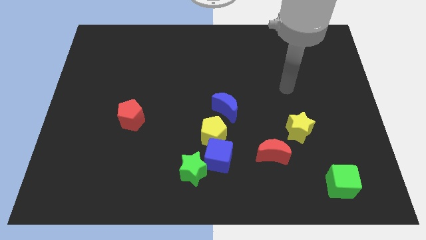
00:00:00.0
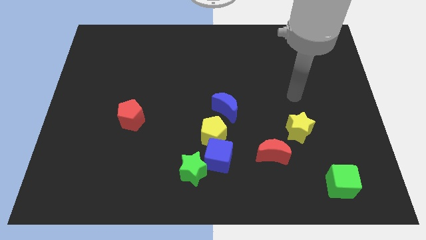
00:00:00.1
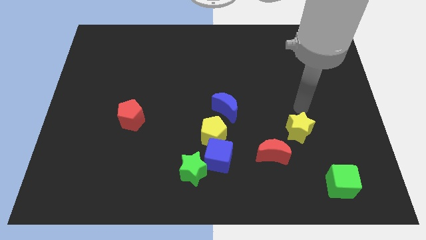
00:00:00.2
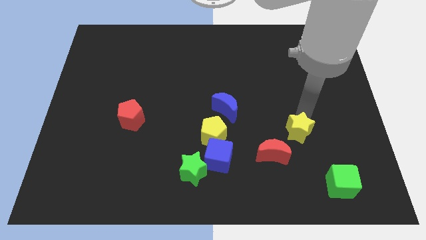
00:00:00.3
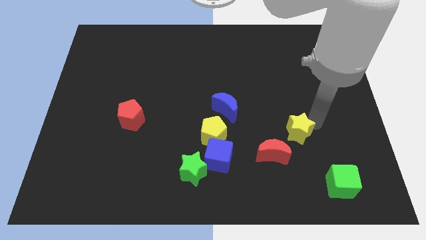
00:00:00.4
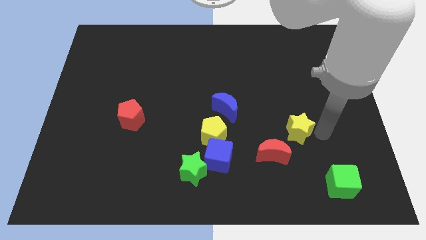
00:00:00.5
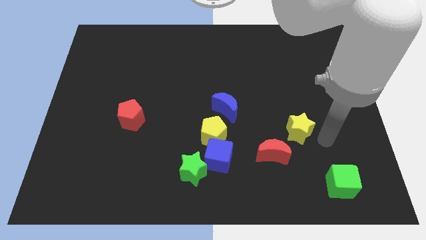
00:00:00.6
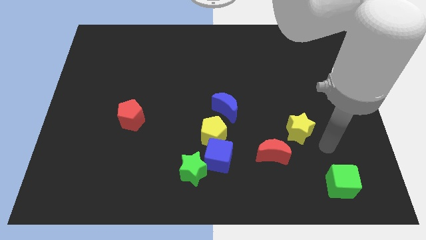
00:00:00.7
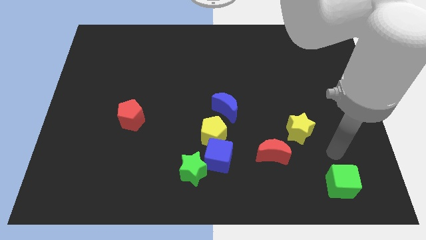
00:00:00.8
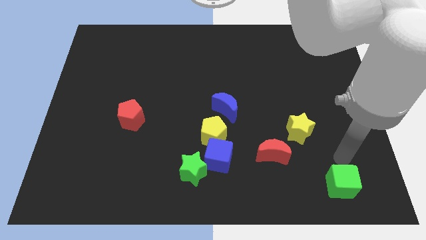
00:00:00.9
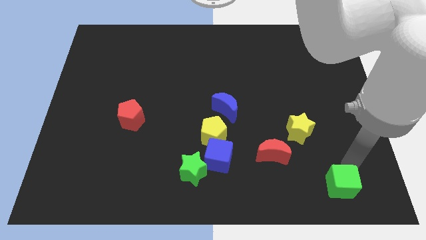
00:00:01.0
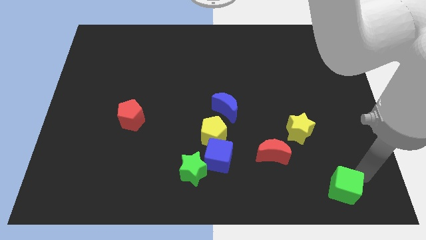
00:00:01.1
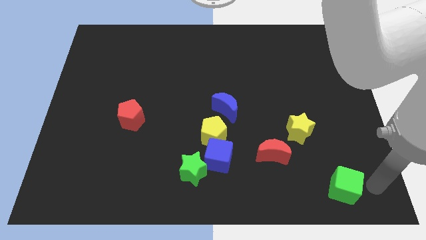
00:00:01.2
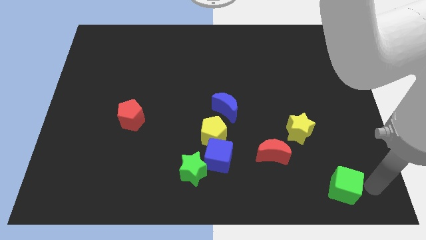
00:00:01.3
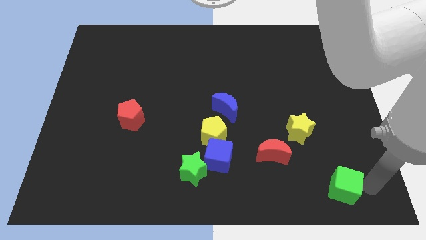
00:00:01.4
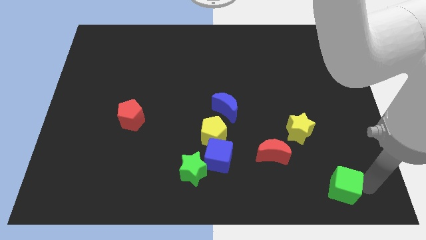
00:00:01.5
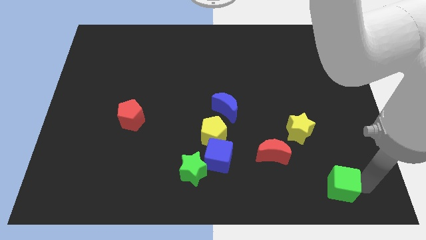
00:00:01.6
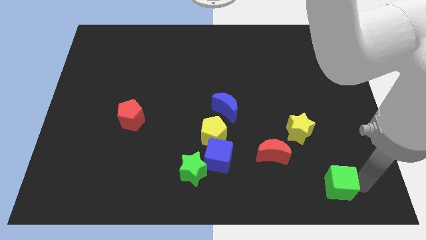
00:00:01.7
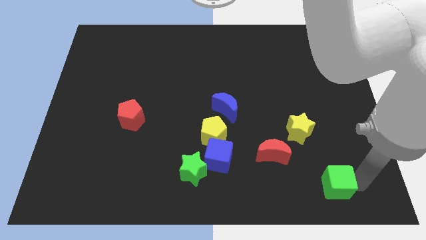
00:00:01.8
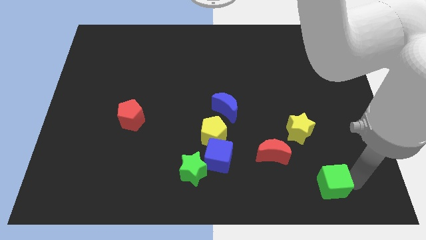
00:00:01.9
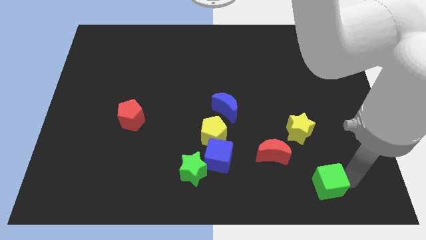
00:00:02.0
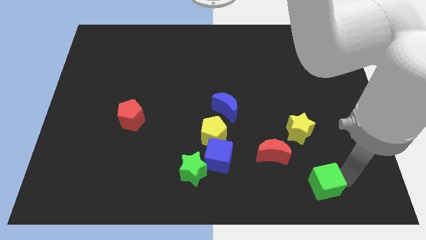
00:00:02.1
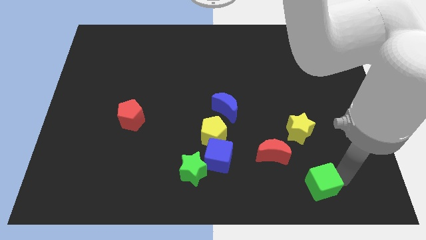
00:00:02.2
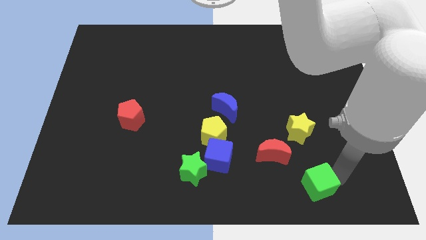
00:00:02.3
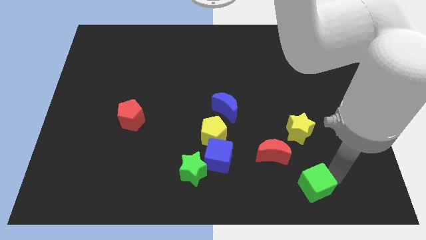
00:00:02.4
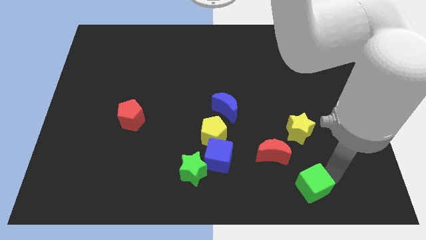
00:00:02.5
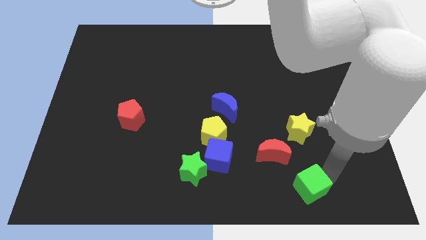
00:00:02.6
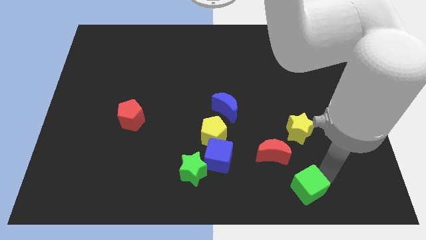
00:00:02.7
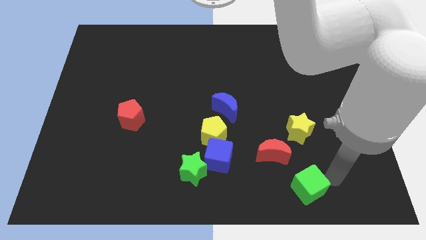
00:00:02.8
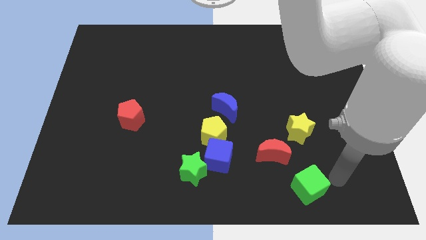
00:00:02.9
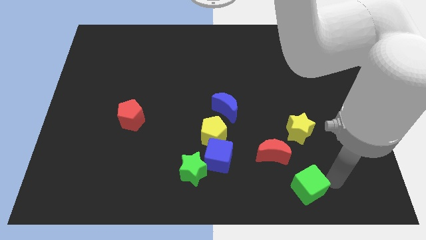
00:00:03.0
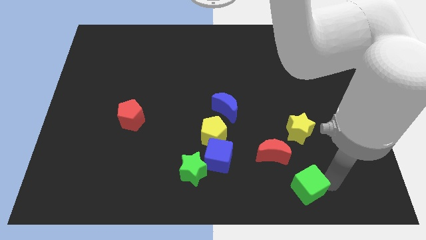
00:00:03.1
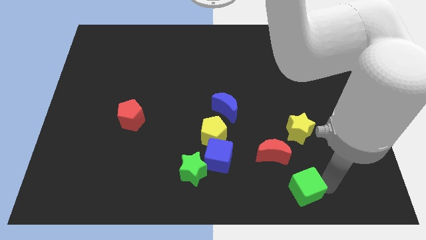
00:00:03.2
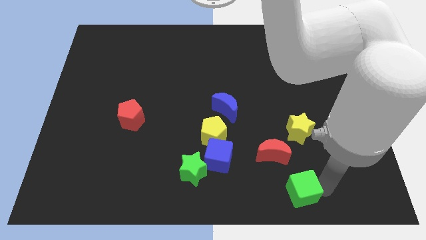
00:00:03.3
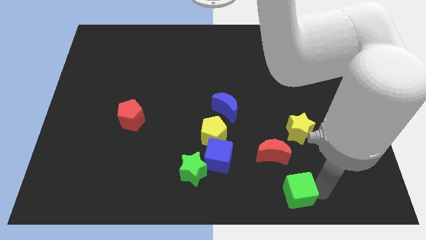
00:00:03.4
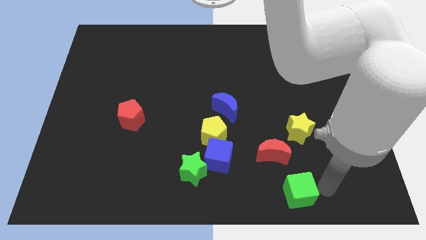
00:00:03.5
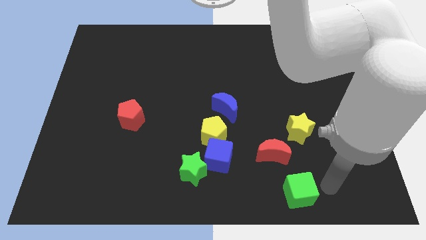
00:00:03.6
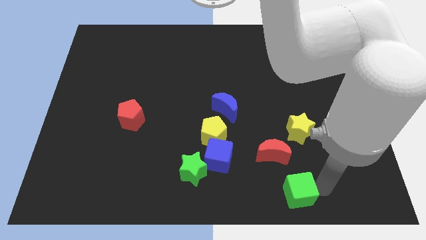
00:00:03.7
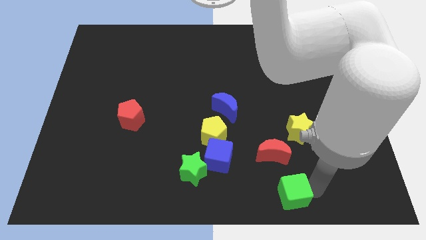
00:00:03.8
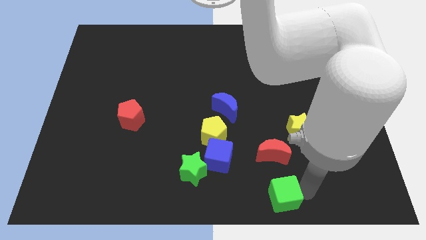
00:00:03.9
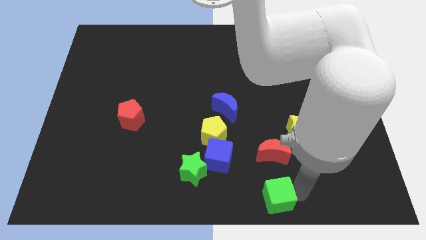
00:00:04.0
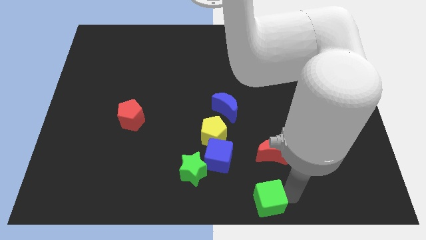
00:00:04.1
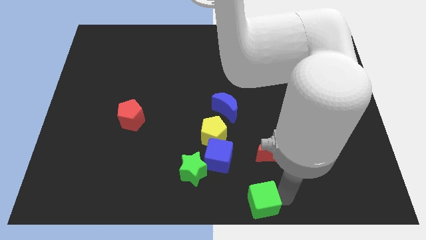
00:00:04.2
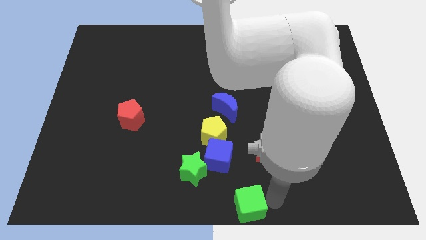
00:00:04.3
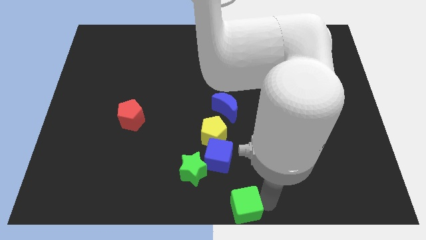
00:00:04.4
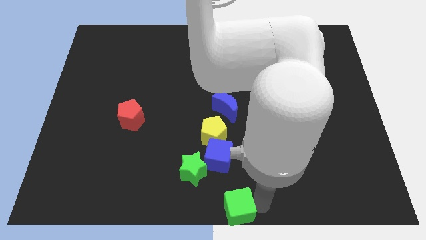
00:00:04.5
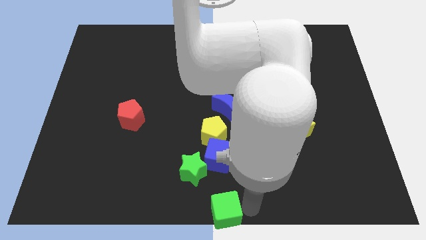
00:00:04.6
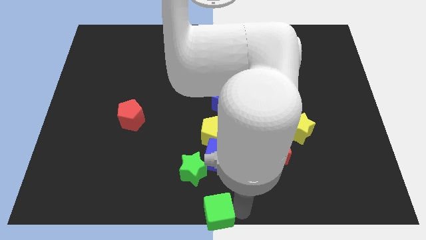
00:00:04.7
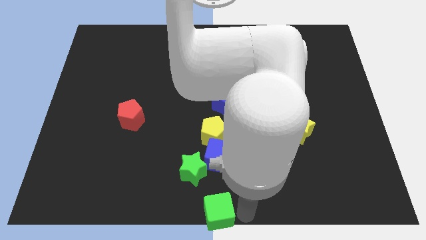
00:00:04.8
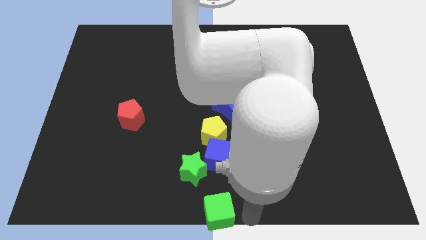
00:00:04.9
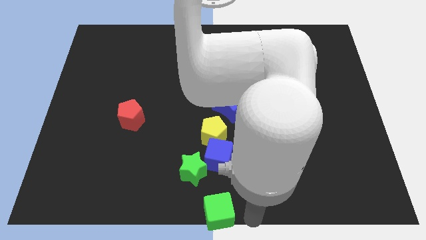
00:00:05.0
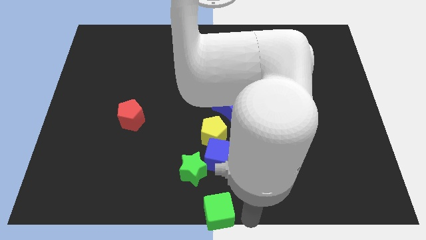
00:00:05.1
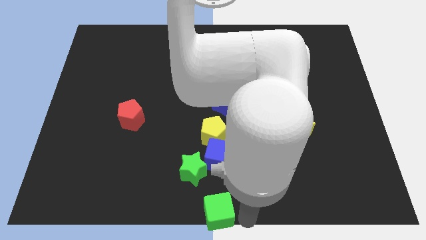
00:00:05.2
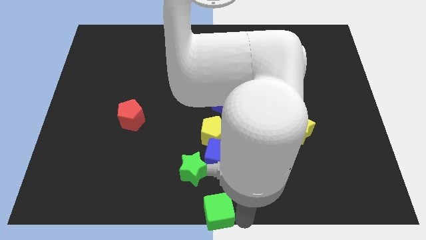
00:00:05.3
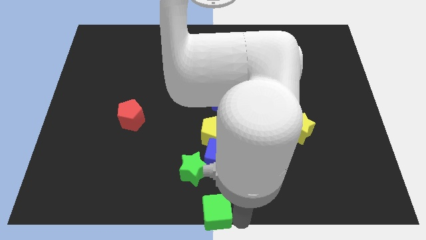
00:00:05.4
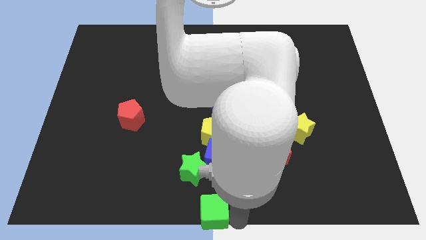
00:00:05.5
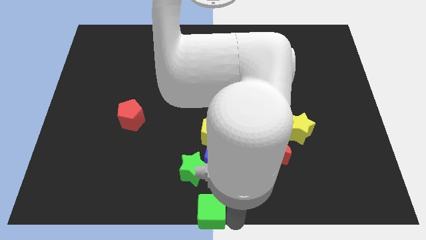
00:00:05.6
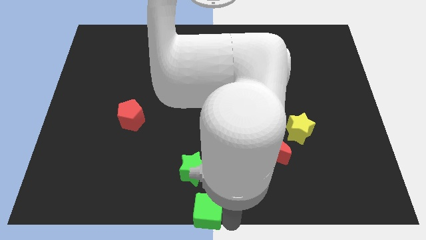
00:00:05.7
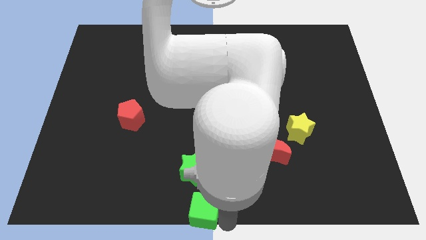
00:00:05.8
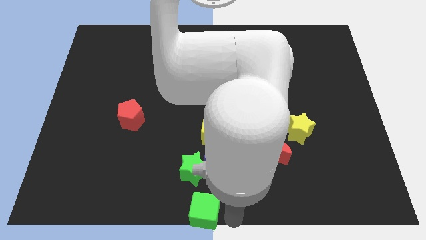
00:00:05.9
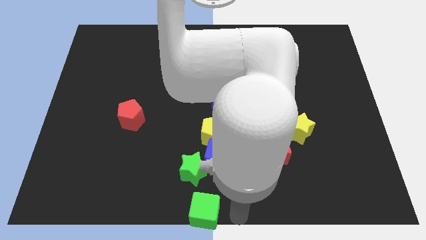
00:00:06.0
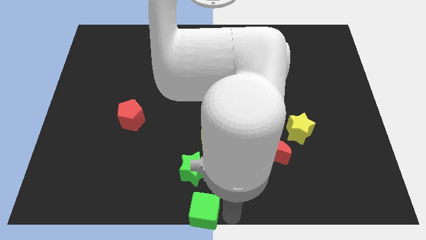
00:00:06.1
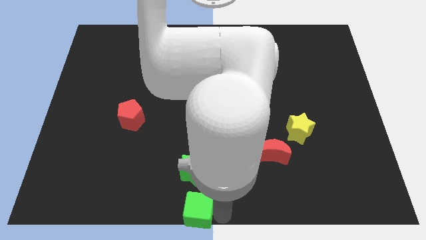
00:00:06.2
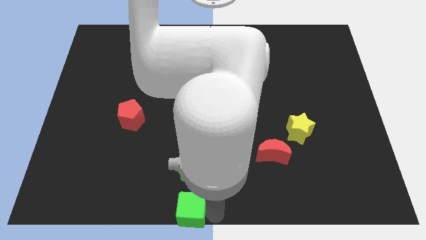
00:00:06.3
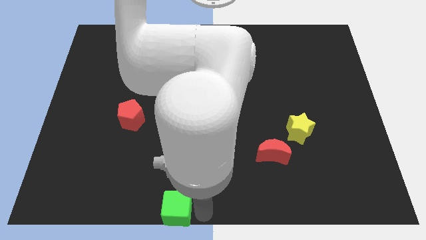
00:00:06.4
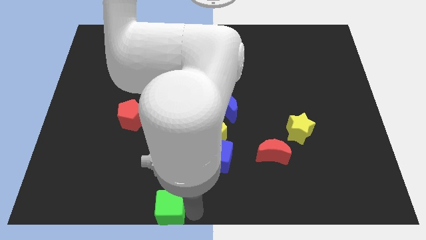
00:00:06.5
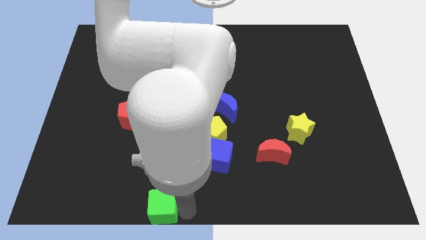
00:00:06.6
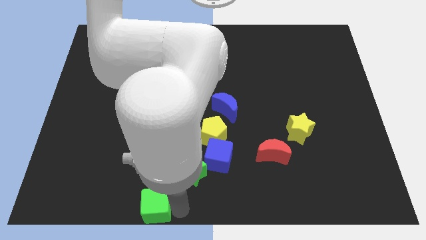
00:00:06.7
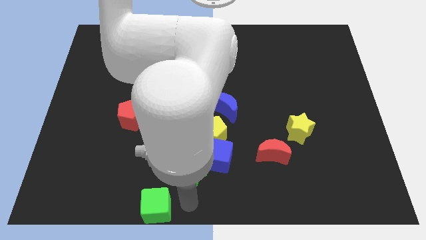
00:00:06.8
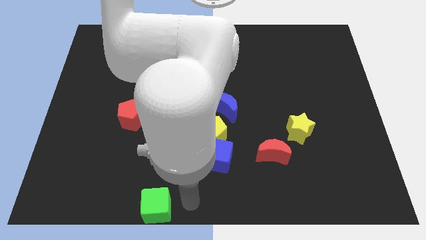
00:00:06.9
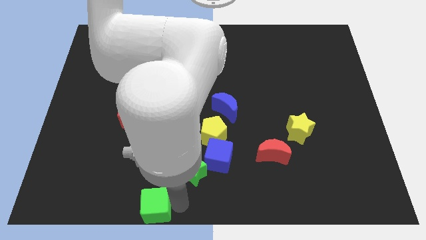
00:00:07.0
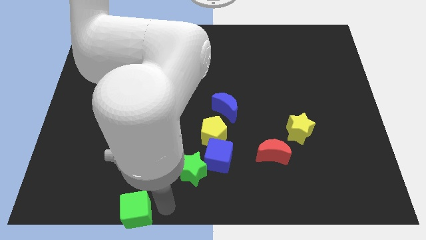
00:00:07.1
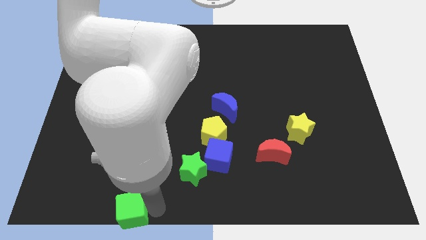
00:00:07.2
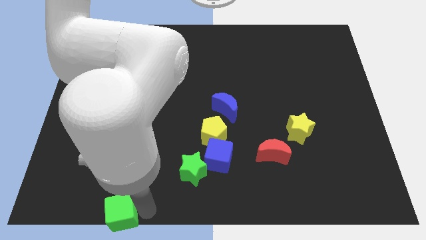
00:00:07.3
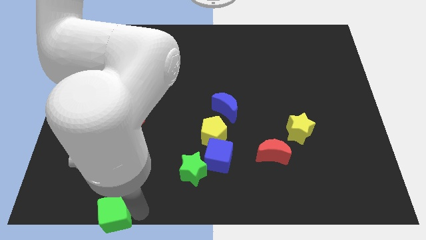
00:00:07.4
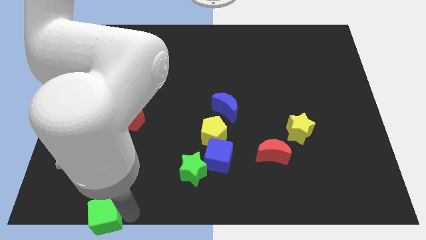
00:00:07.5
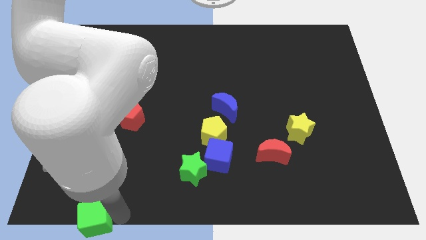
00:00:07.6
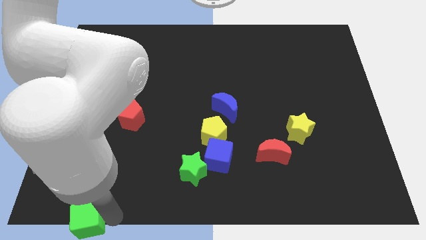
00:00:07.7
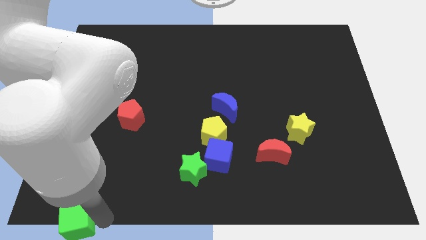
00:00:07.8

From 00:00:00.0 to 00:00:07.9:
push the green cube to the bottom left corner

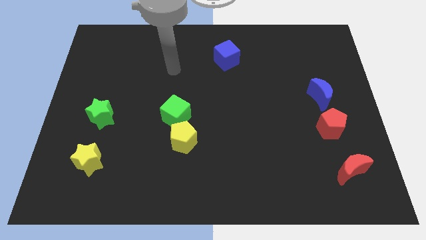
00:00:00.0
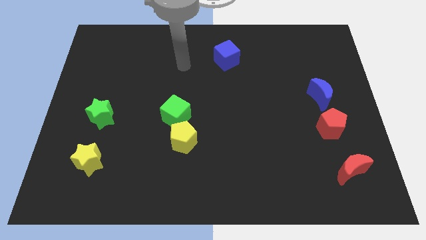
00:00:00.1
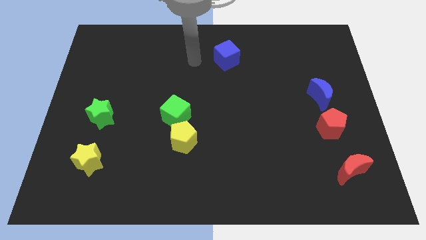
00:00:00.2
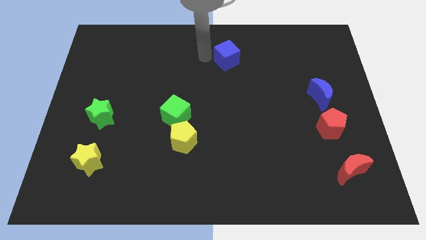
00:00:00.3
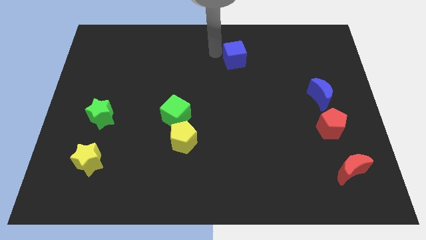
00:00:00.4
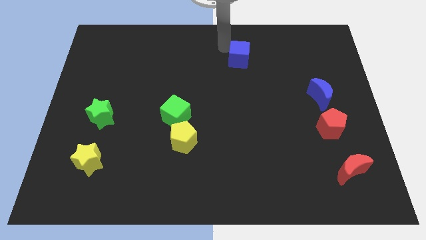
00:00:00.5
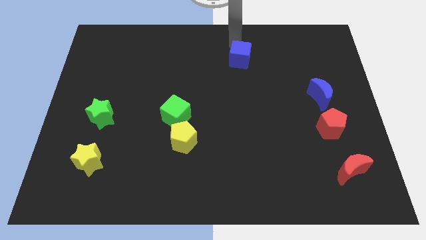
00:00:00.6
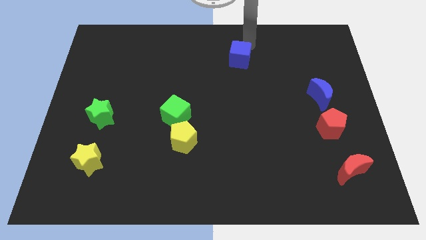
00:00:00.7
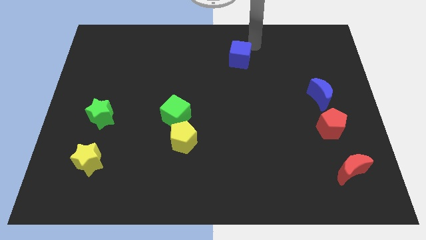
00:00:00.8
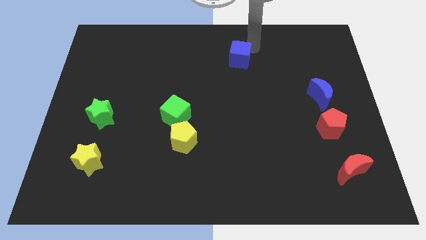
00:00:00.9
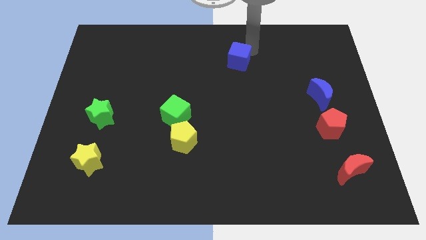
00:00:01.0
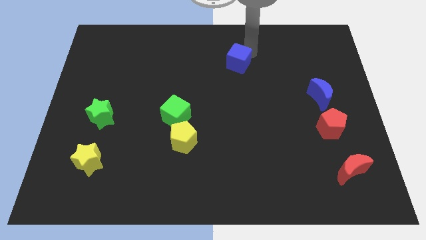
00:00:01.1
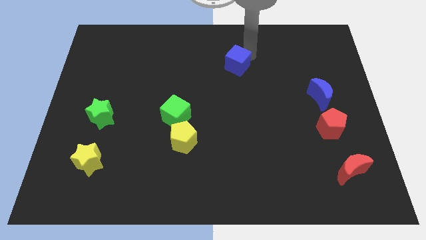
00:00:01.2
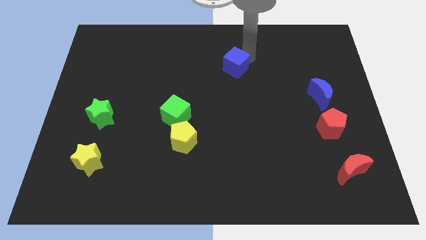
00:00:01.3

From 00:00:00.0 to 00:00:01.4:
move the blue cube to the middle of the board
